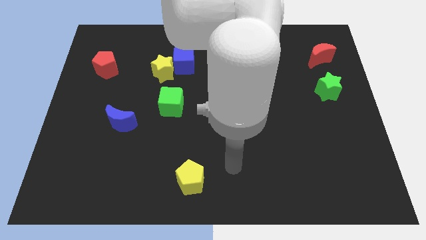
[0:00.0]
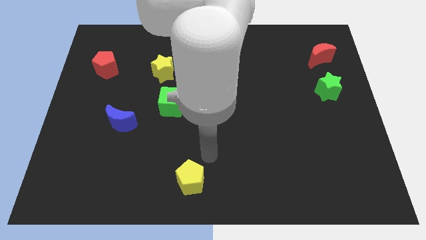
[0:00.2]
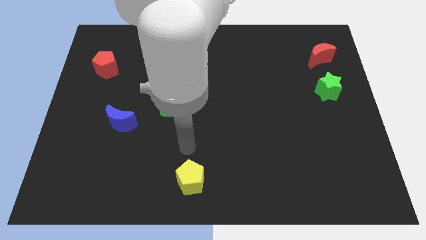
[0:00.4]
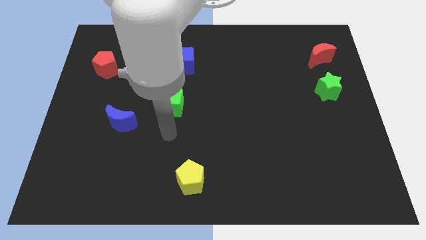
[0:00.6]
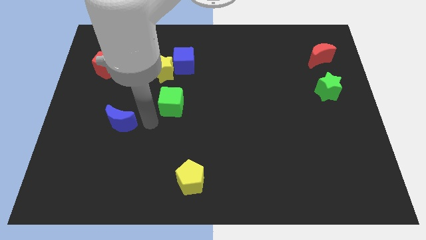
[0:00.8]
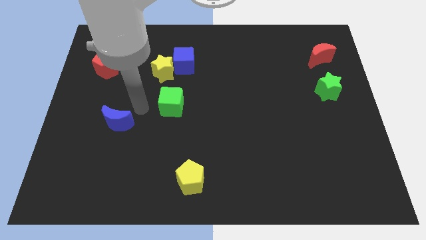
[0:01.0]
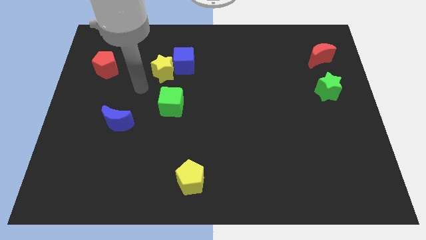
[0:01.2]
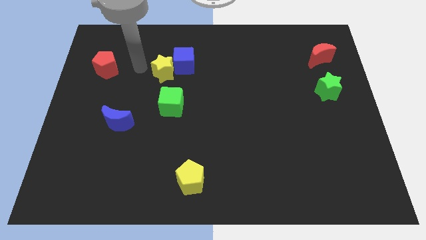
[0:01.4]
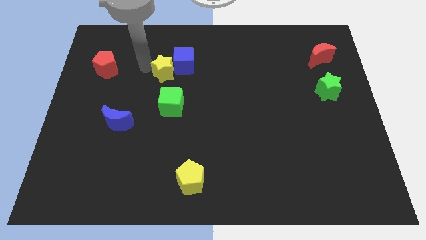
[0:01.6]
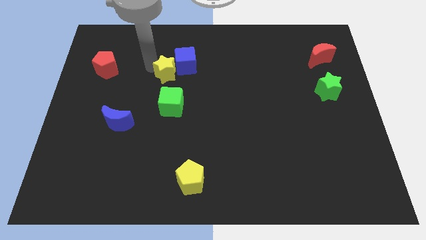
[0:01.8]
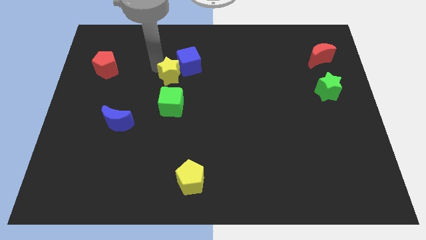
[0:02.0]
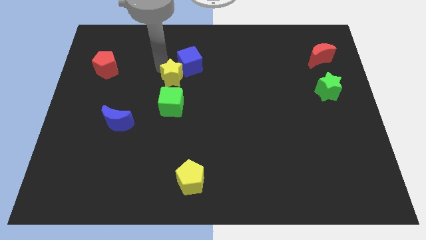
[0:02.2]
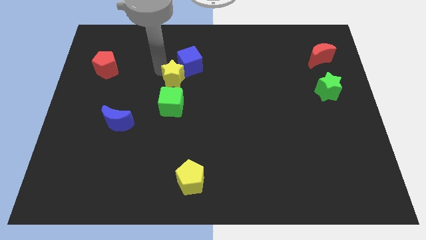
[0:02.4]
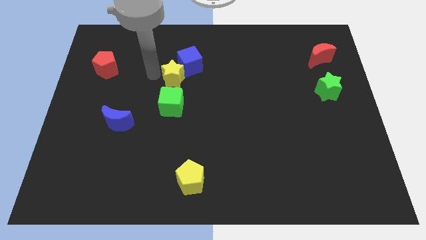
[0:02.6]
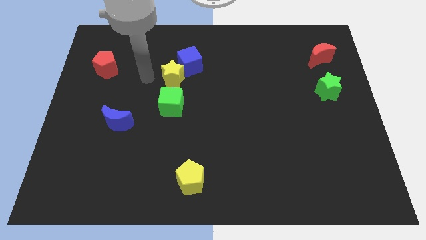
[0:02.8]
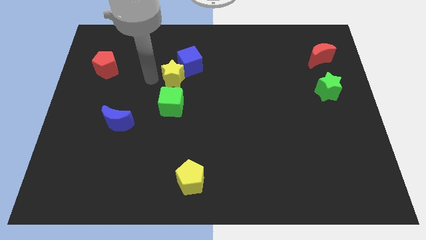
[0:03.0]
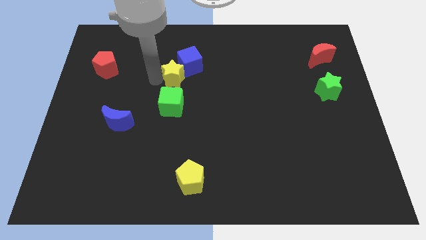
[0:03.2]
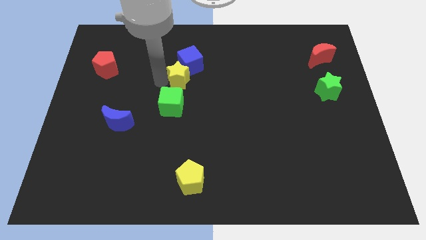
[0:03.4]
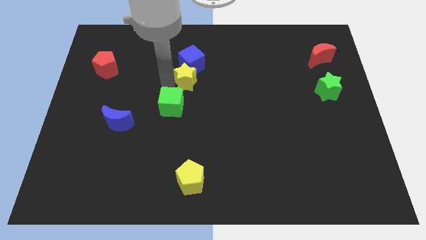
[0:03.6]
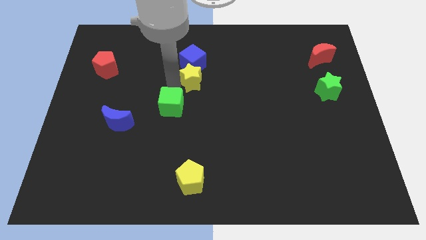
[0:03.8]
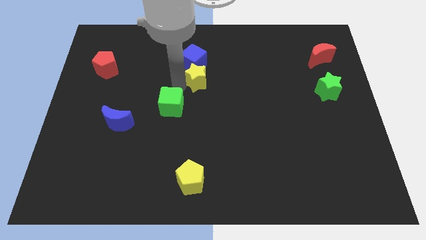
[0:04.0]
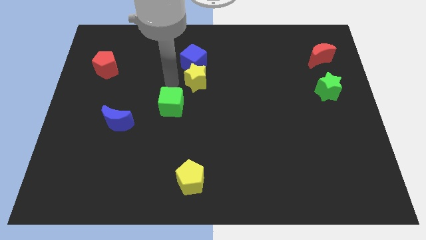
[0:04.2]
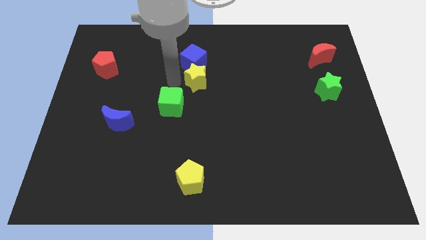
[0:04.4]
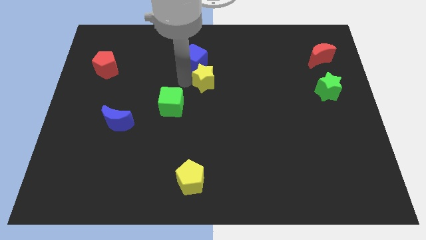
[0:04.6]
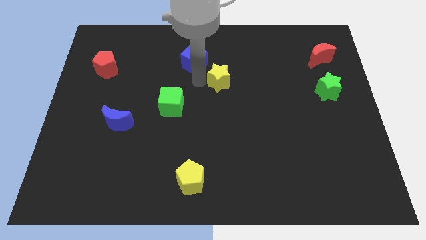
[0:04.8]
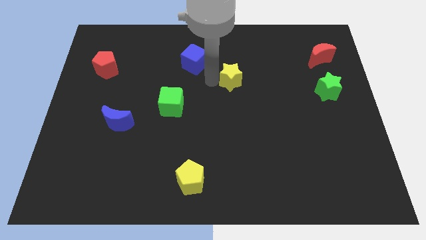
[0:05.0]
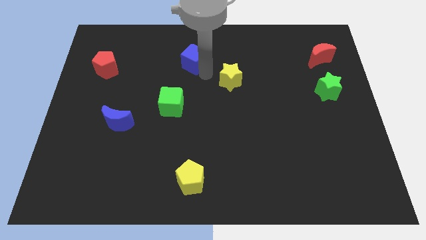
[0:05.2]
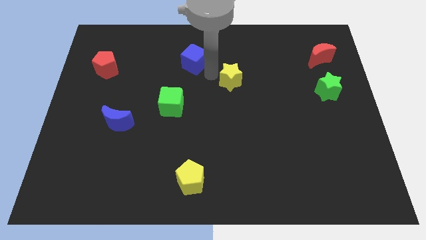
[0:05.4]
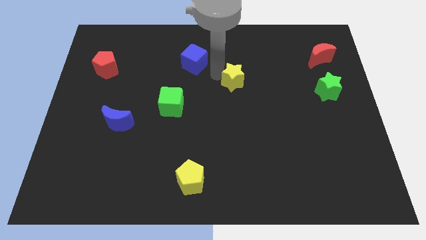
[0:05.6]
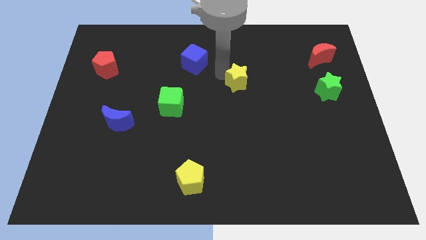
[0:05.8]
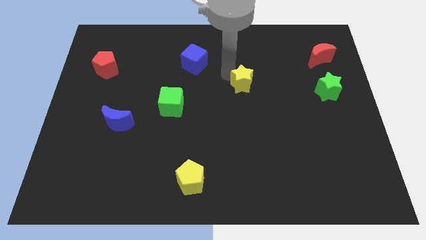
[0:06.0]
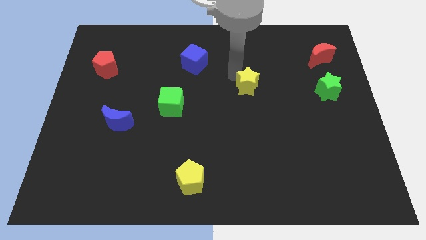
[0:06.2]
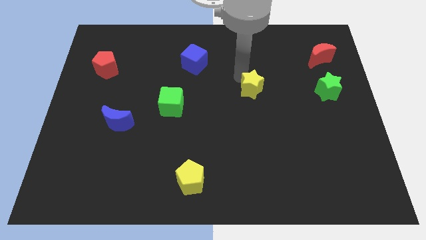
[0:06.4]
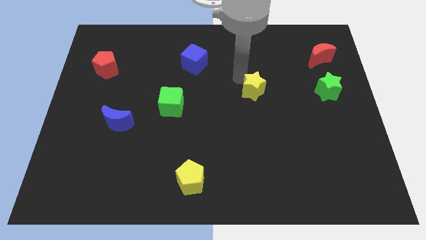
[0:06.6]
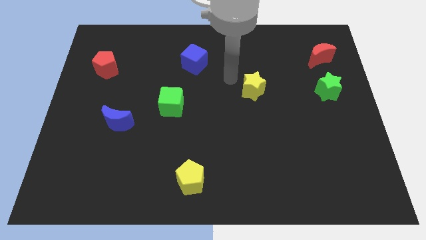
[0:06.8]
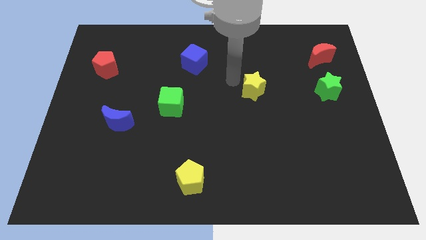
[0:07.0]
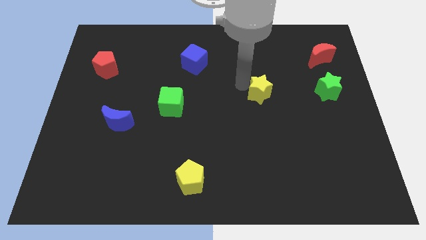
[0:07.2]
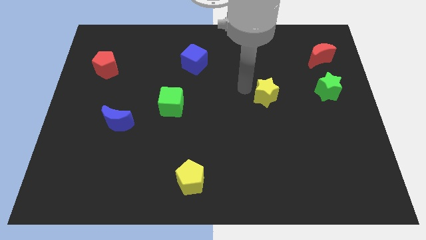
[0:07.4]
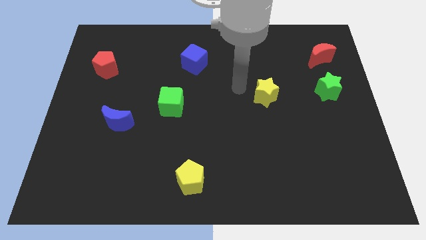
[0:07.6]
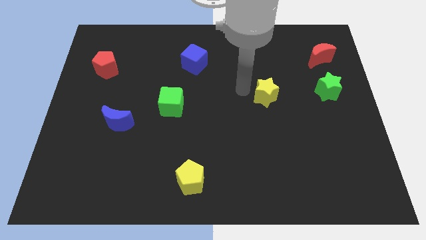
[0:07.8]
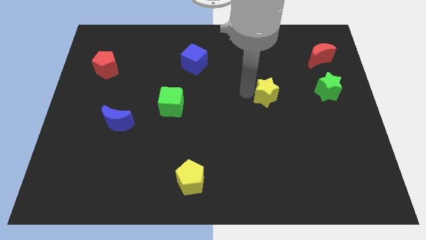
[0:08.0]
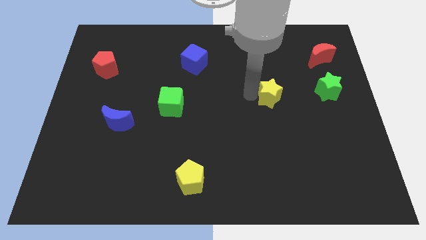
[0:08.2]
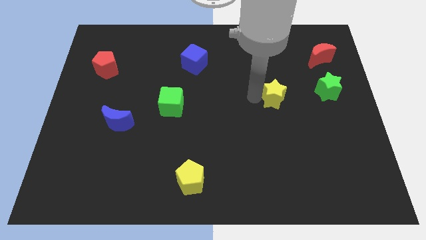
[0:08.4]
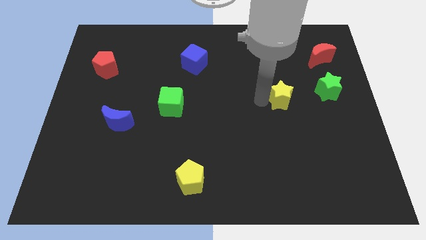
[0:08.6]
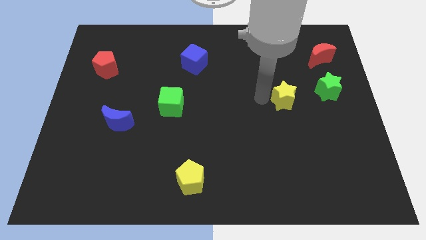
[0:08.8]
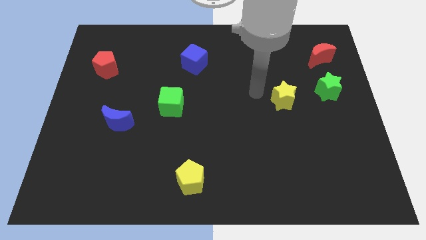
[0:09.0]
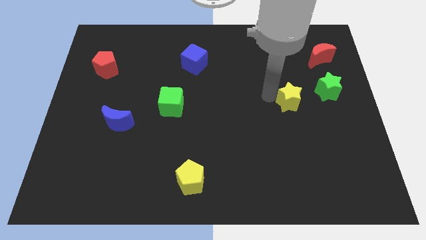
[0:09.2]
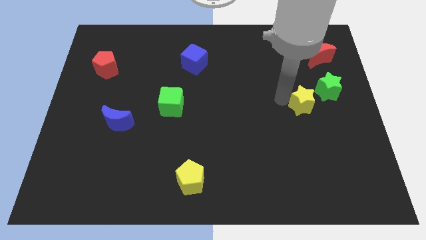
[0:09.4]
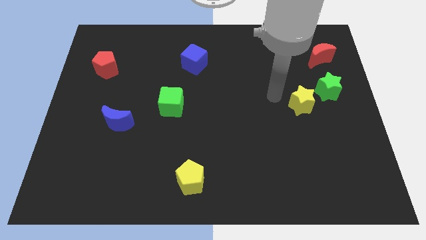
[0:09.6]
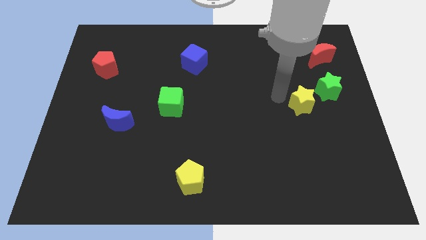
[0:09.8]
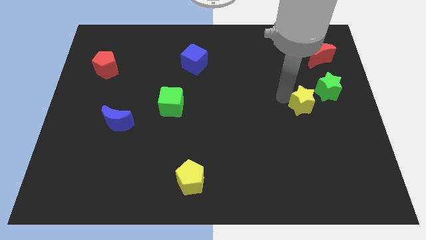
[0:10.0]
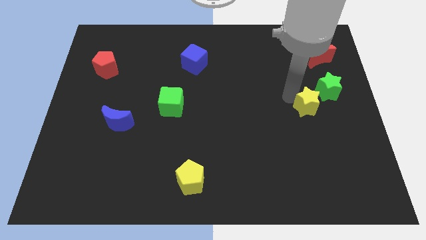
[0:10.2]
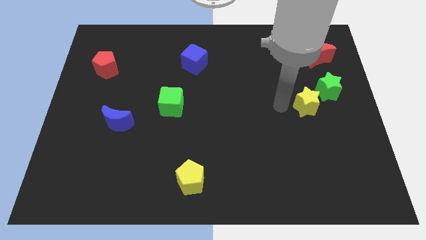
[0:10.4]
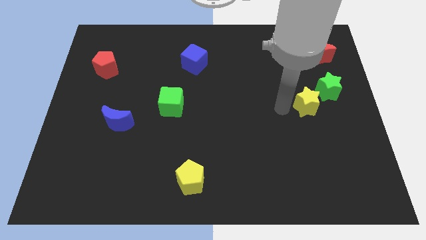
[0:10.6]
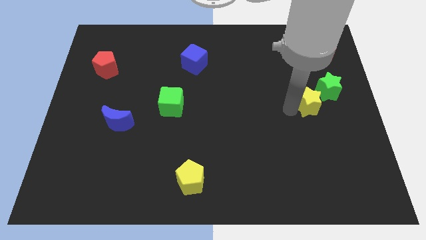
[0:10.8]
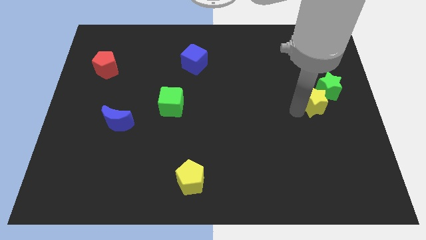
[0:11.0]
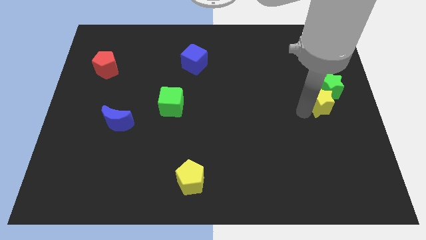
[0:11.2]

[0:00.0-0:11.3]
push the yellow star to the right side of the board

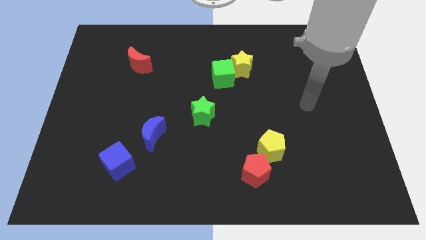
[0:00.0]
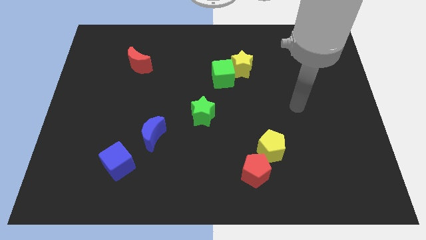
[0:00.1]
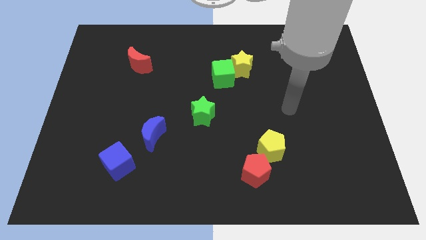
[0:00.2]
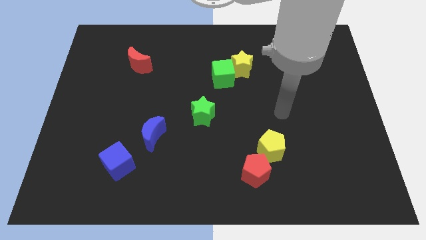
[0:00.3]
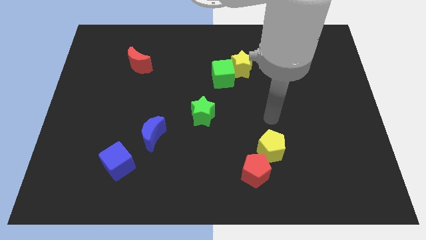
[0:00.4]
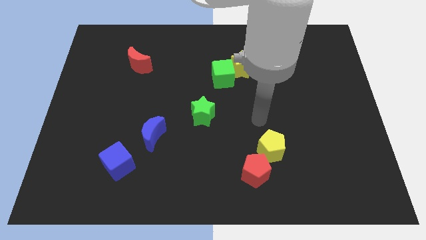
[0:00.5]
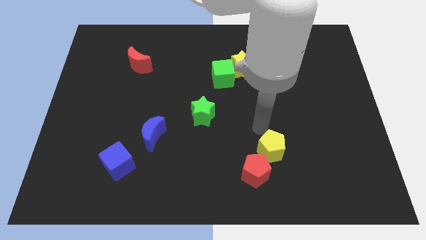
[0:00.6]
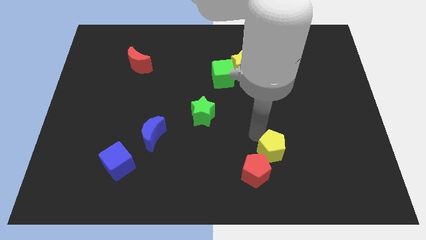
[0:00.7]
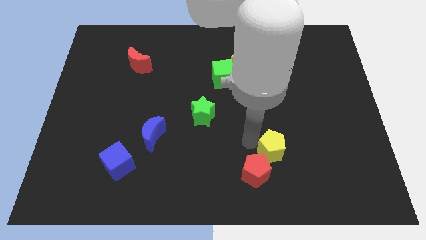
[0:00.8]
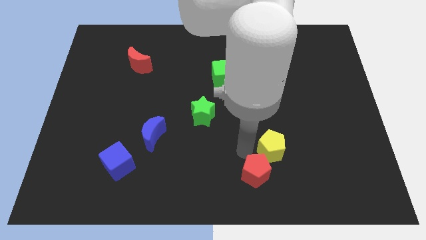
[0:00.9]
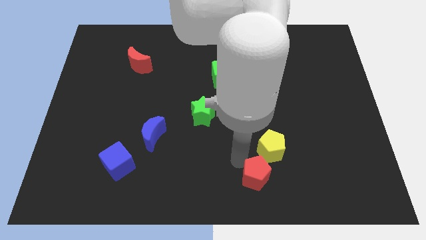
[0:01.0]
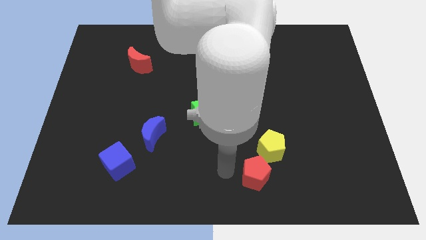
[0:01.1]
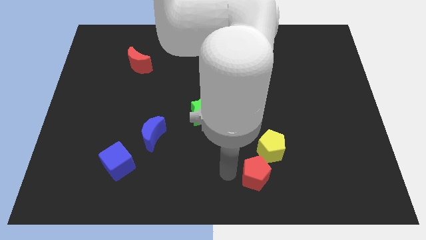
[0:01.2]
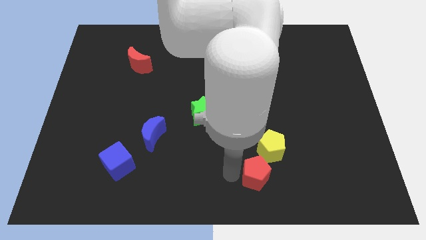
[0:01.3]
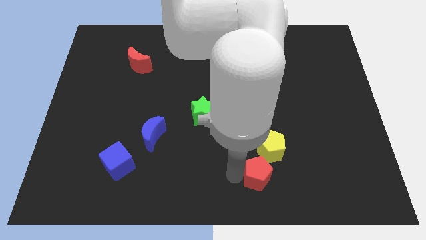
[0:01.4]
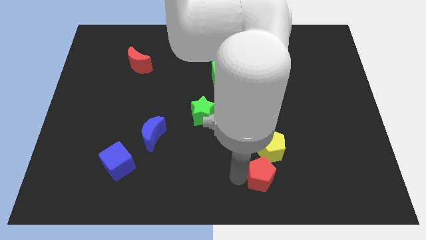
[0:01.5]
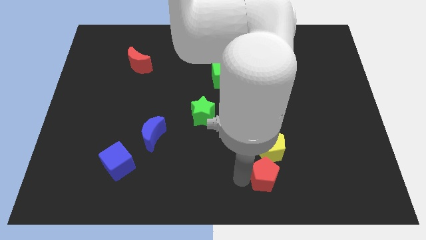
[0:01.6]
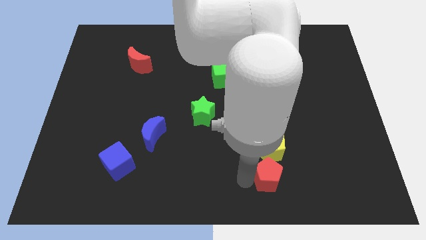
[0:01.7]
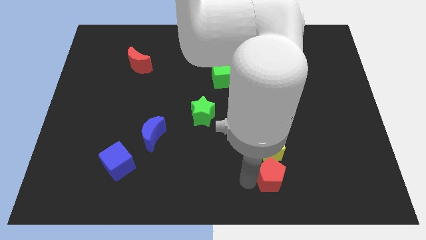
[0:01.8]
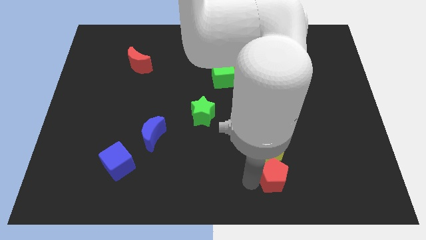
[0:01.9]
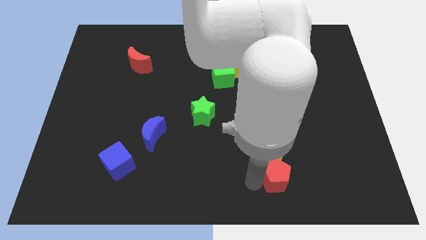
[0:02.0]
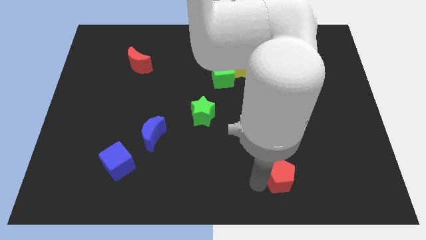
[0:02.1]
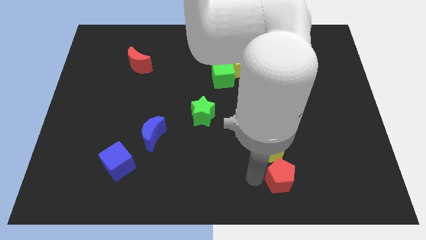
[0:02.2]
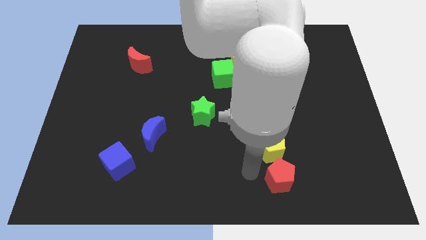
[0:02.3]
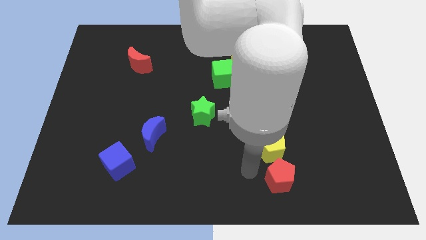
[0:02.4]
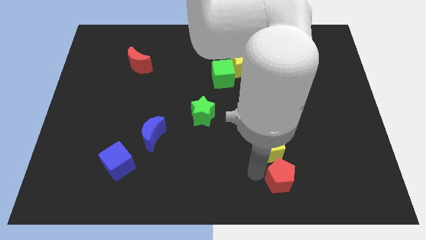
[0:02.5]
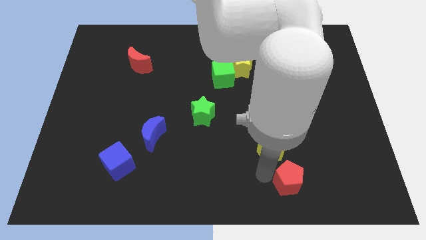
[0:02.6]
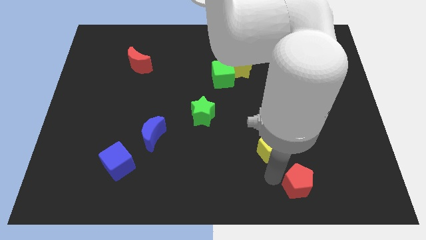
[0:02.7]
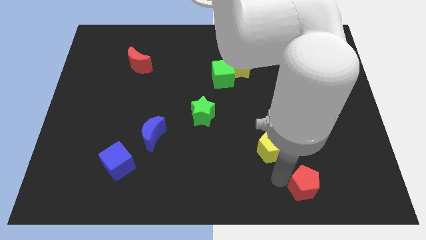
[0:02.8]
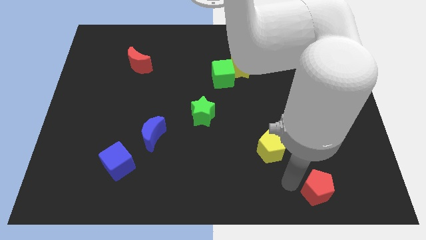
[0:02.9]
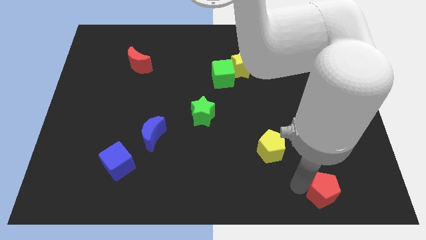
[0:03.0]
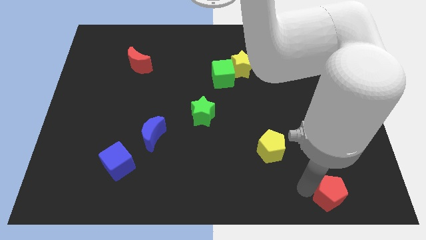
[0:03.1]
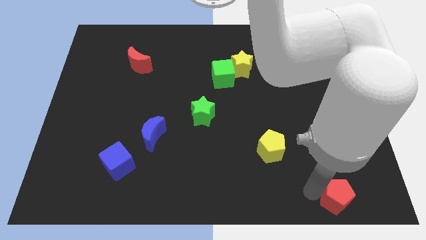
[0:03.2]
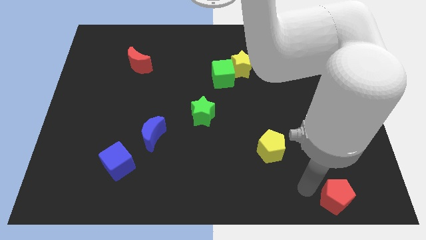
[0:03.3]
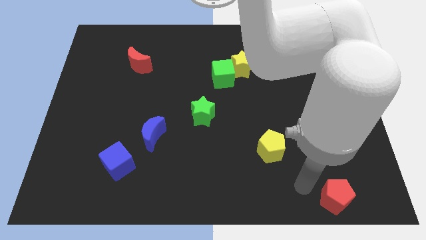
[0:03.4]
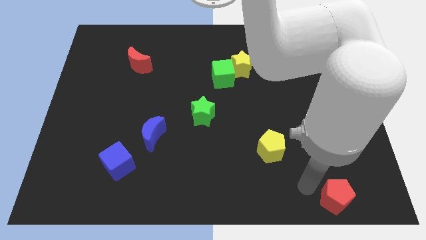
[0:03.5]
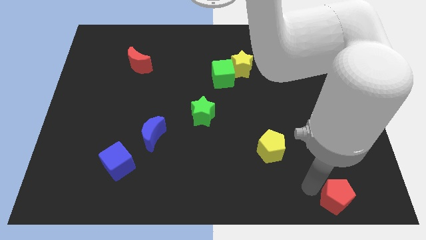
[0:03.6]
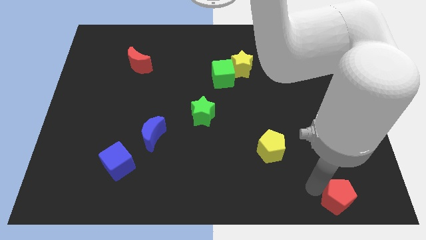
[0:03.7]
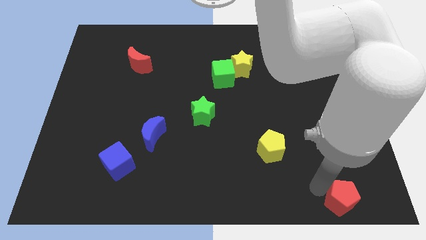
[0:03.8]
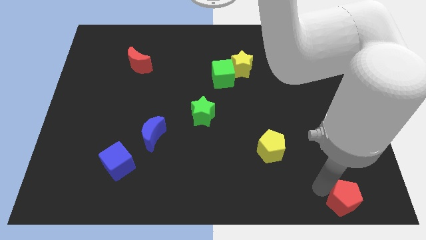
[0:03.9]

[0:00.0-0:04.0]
put the red pentagon to the bottom right corner
